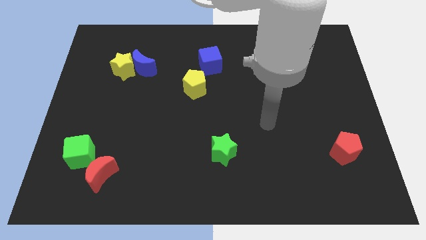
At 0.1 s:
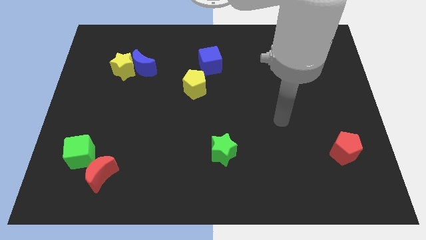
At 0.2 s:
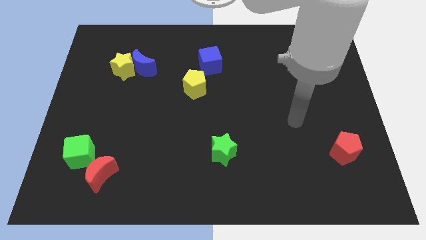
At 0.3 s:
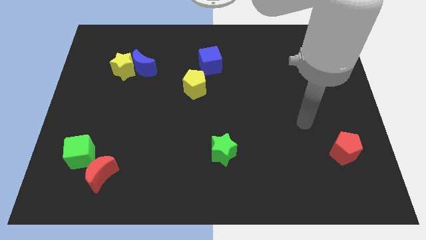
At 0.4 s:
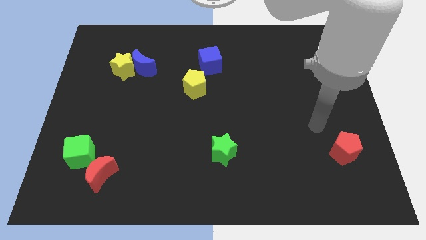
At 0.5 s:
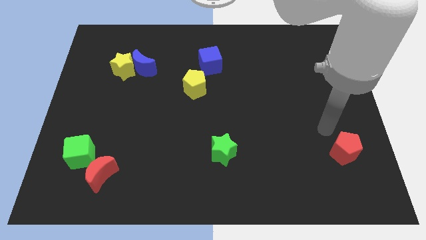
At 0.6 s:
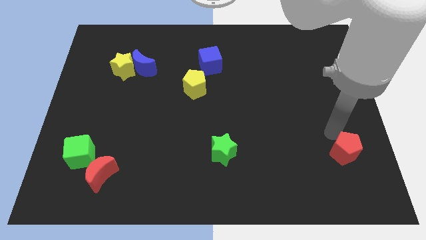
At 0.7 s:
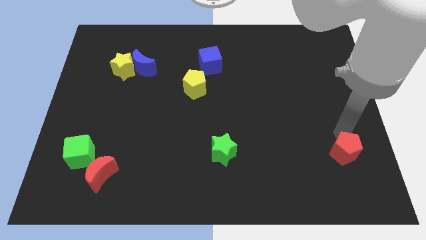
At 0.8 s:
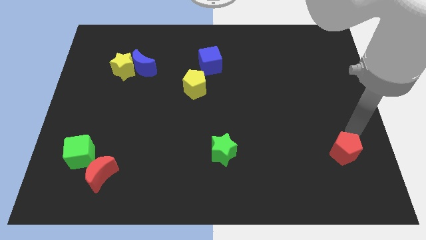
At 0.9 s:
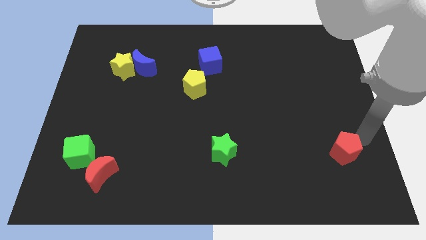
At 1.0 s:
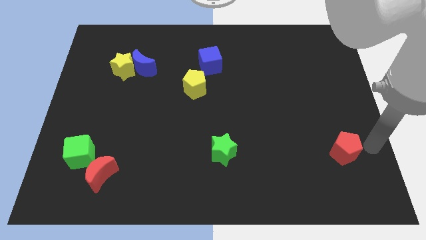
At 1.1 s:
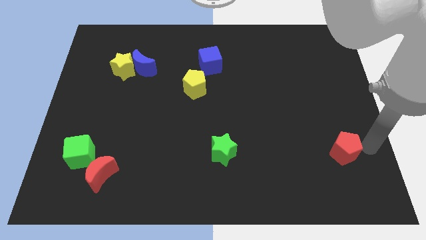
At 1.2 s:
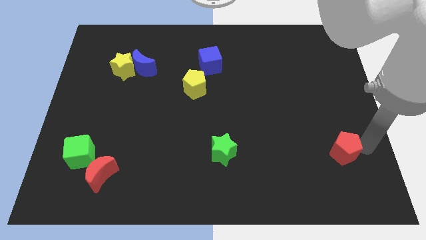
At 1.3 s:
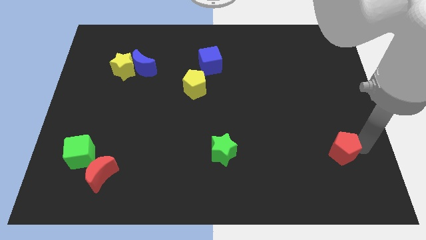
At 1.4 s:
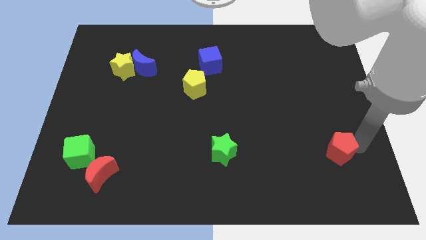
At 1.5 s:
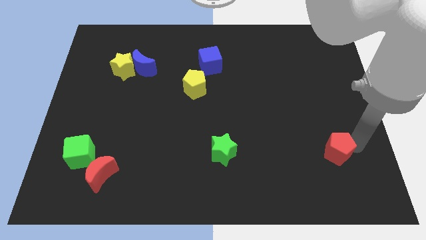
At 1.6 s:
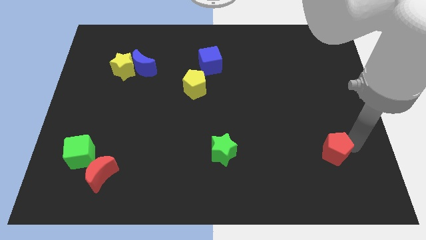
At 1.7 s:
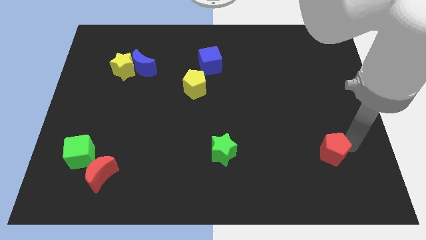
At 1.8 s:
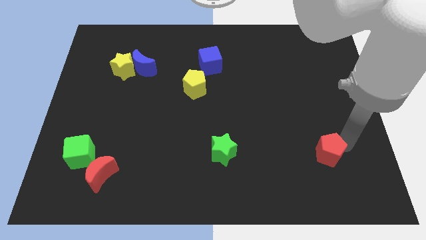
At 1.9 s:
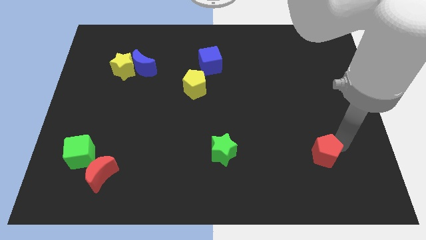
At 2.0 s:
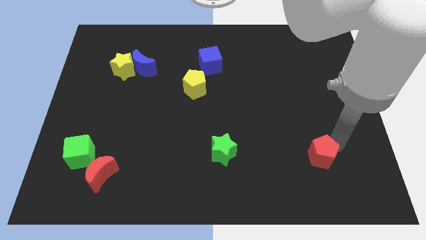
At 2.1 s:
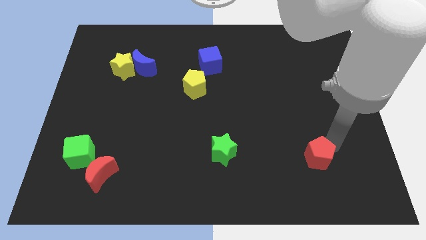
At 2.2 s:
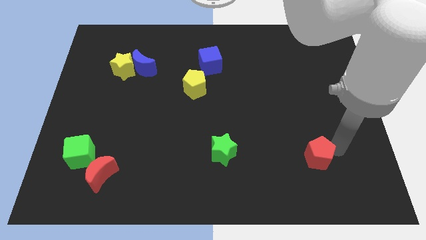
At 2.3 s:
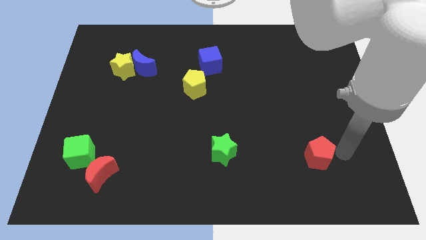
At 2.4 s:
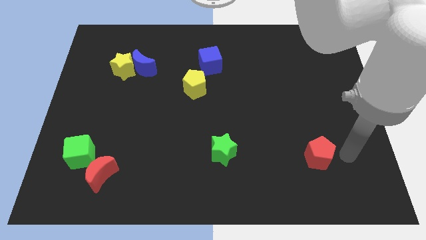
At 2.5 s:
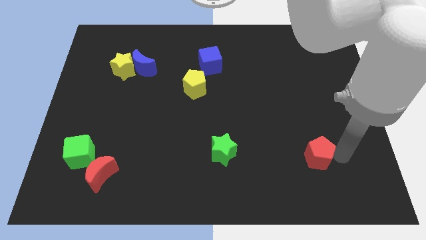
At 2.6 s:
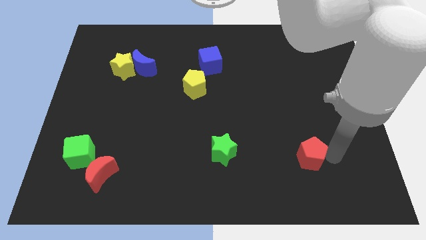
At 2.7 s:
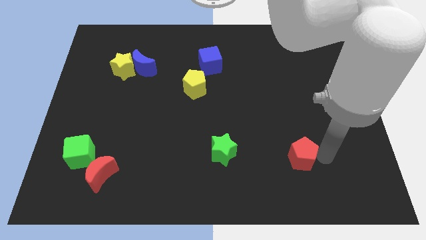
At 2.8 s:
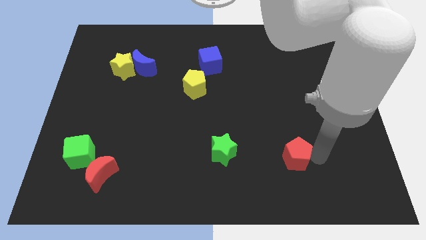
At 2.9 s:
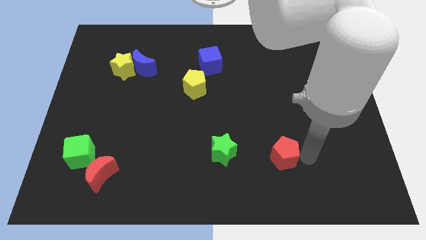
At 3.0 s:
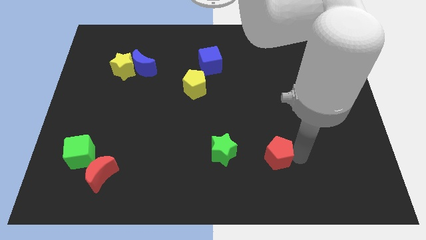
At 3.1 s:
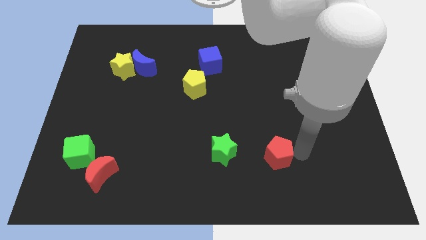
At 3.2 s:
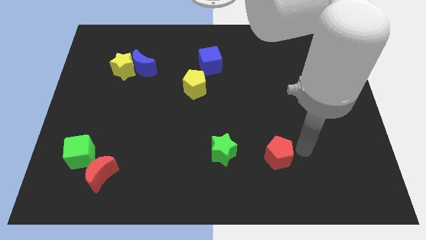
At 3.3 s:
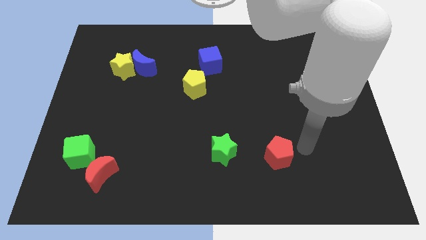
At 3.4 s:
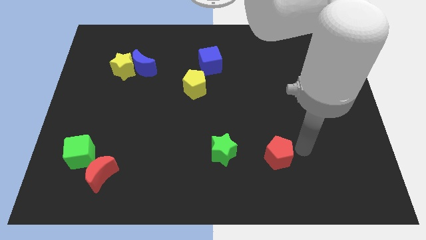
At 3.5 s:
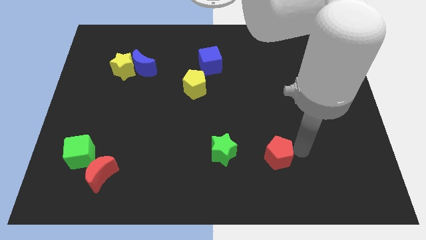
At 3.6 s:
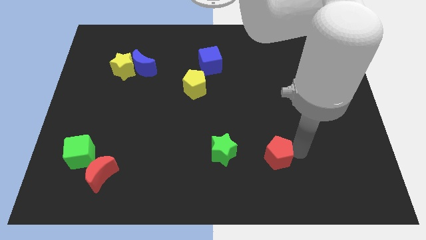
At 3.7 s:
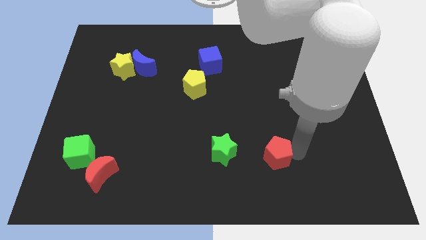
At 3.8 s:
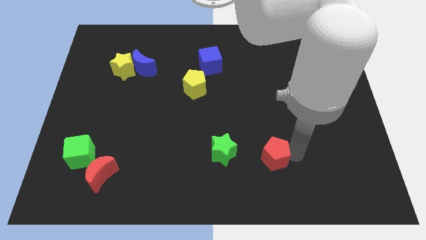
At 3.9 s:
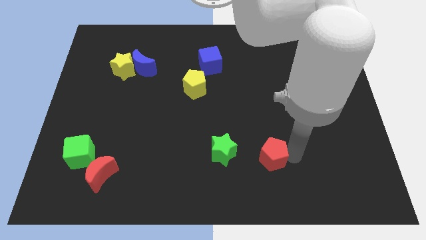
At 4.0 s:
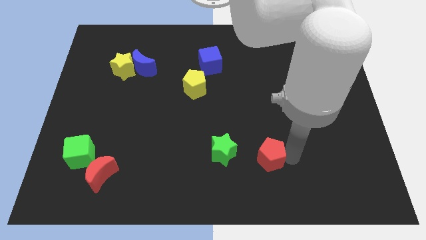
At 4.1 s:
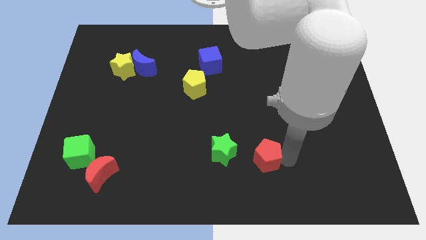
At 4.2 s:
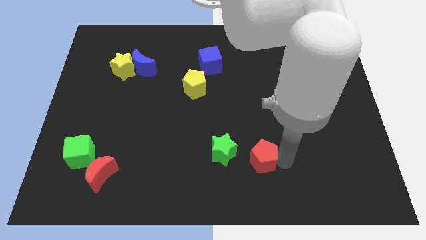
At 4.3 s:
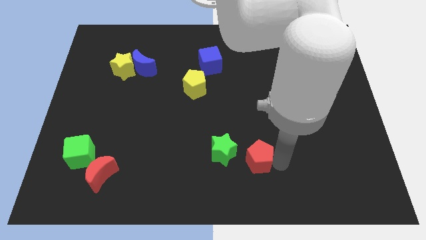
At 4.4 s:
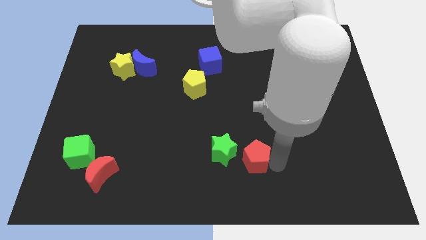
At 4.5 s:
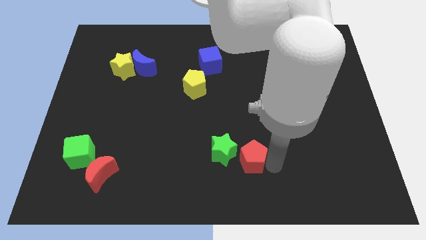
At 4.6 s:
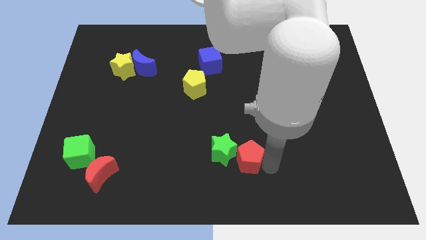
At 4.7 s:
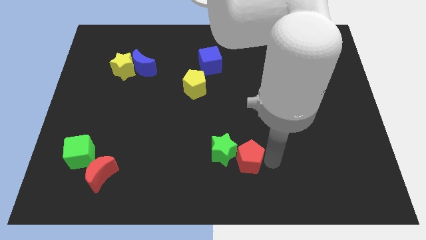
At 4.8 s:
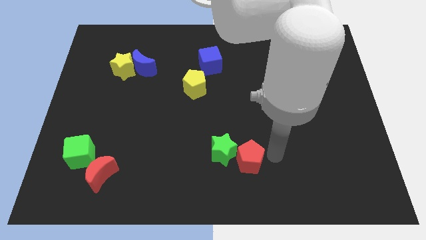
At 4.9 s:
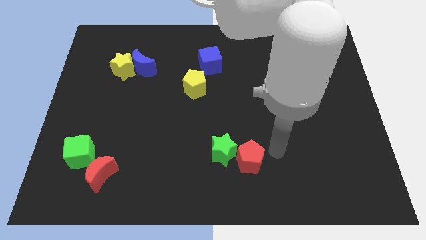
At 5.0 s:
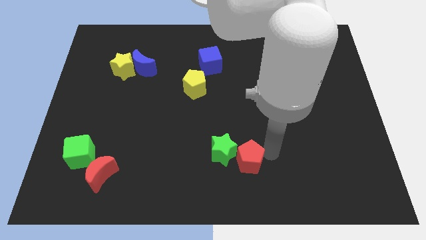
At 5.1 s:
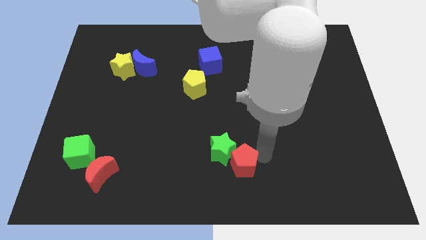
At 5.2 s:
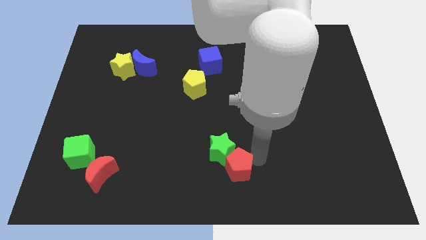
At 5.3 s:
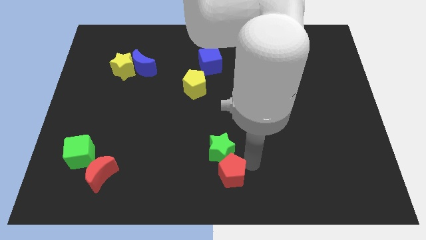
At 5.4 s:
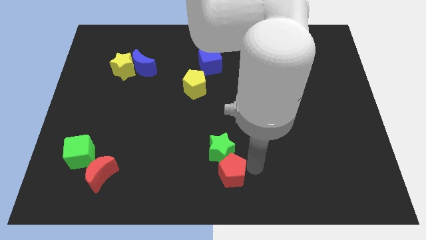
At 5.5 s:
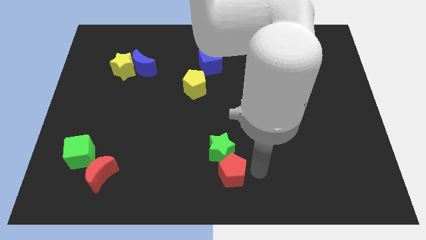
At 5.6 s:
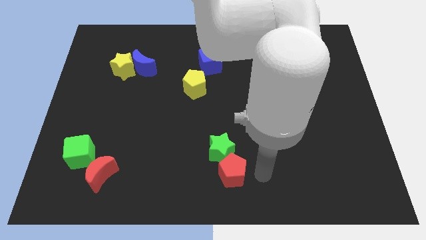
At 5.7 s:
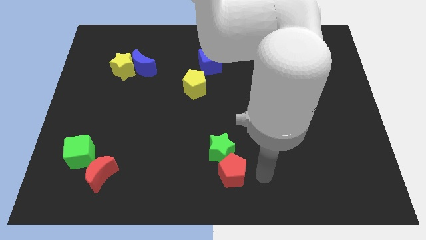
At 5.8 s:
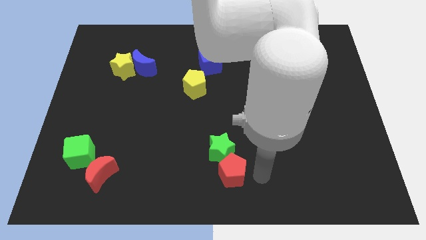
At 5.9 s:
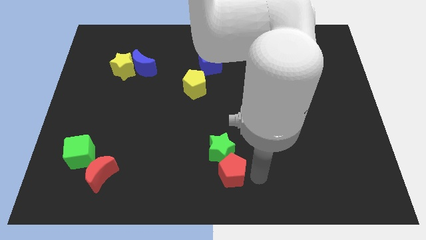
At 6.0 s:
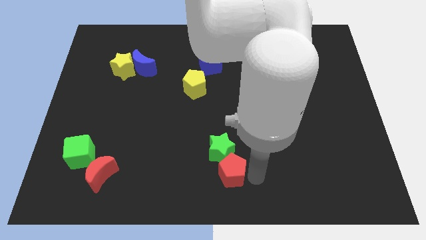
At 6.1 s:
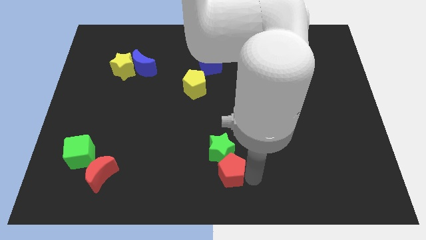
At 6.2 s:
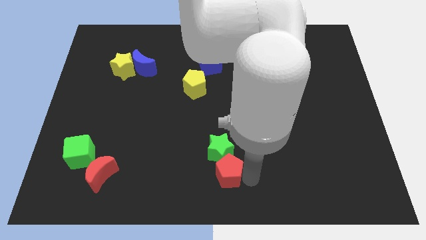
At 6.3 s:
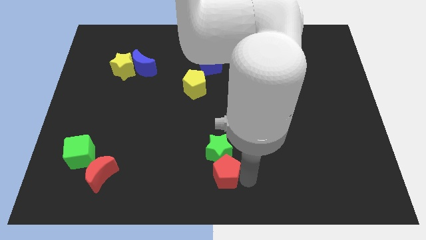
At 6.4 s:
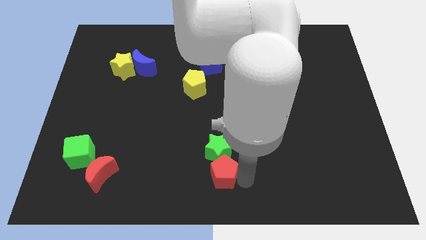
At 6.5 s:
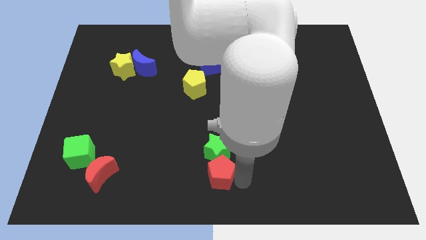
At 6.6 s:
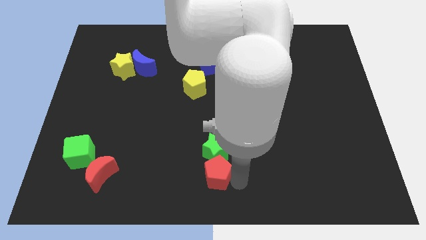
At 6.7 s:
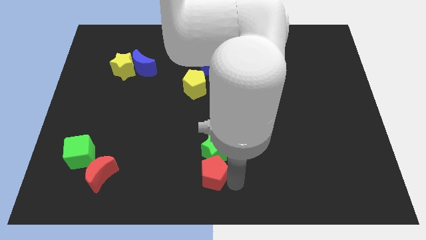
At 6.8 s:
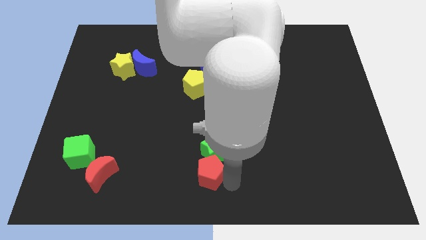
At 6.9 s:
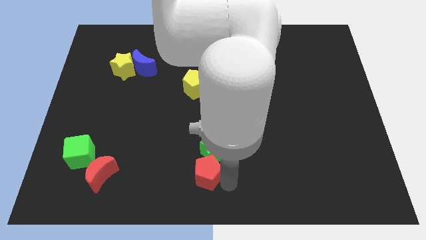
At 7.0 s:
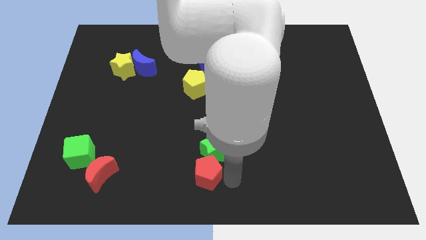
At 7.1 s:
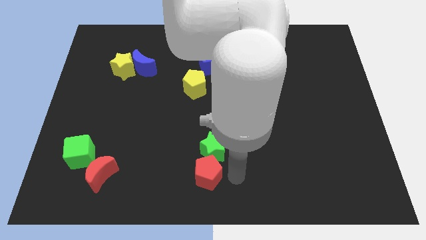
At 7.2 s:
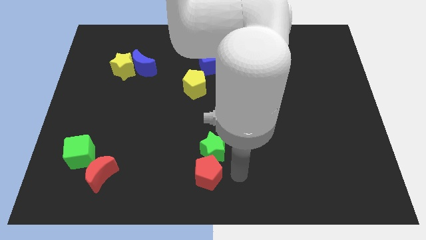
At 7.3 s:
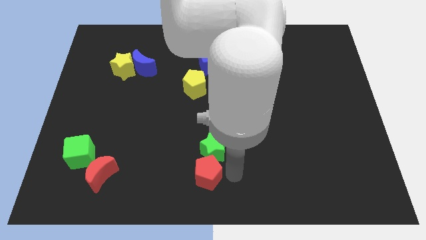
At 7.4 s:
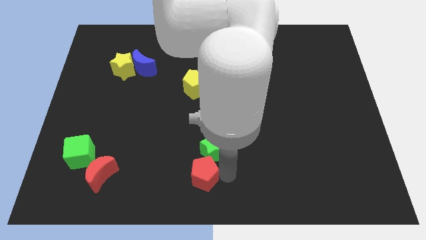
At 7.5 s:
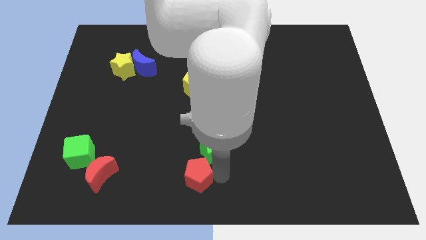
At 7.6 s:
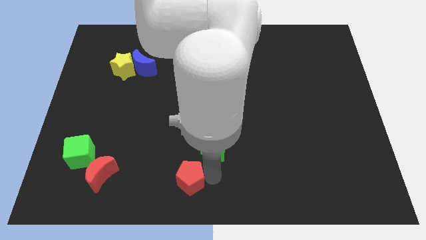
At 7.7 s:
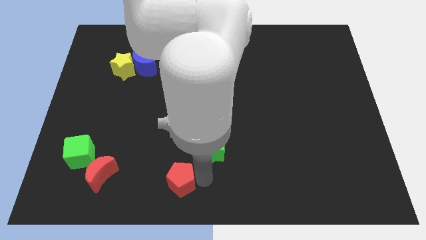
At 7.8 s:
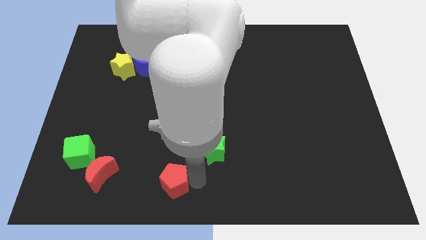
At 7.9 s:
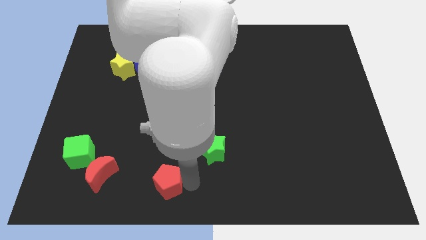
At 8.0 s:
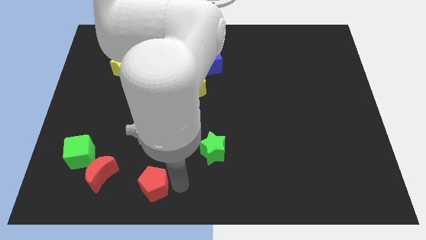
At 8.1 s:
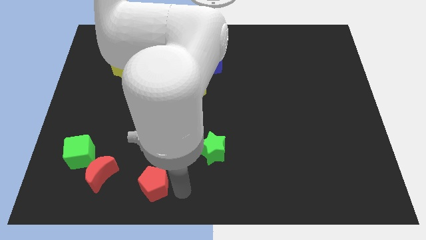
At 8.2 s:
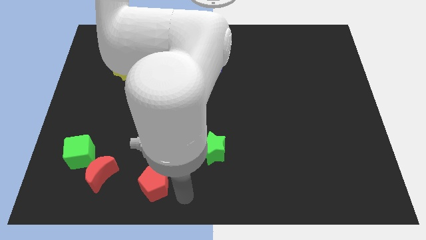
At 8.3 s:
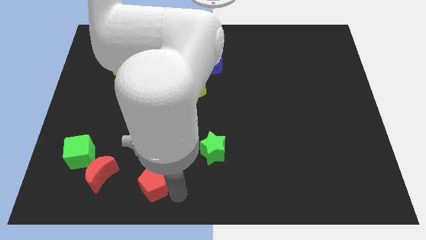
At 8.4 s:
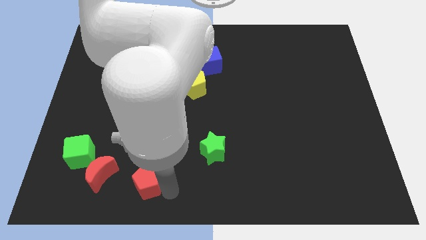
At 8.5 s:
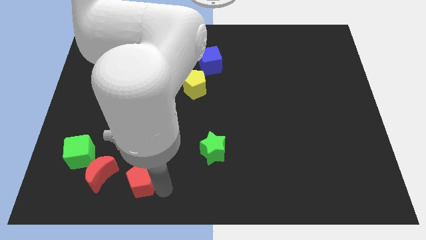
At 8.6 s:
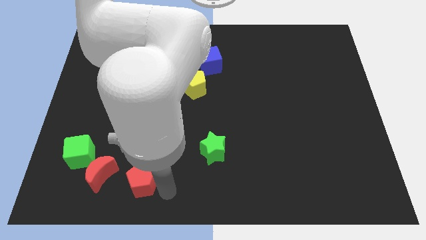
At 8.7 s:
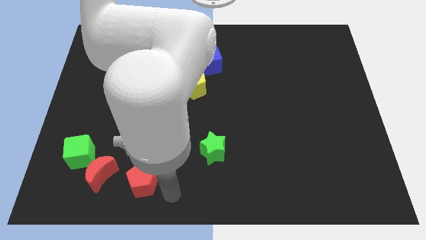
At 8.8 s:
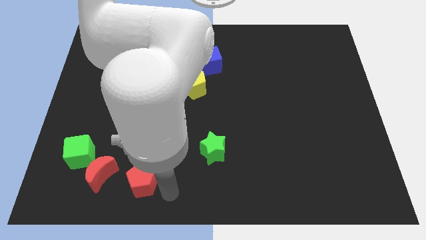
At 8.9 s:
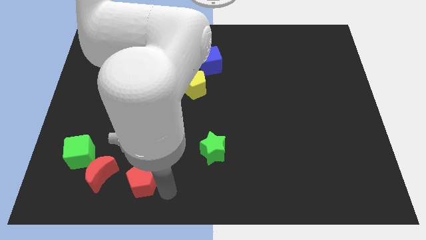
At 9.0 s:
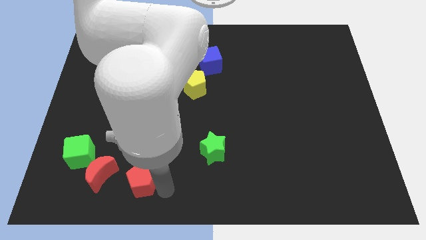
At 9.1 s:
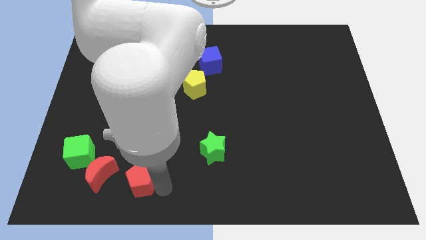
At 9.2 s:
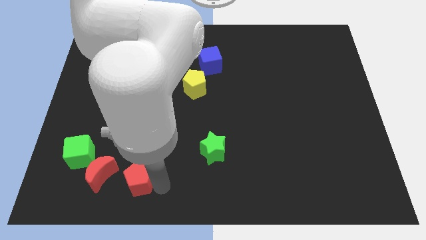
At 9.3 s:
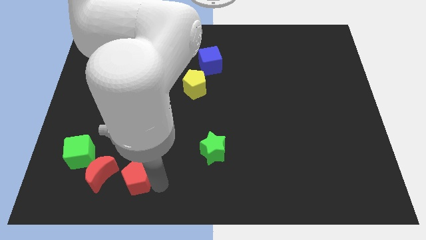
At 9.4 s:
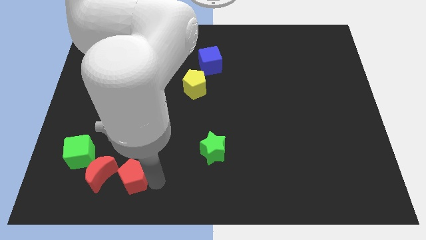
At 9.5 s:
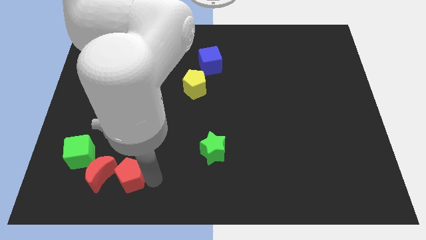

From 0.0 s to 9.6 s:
slide the red pentagon towards the red moon
